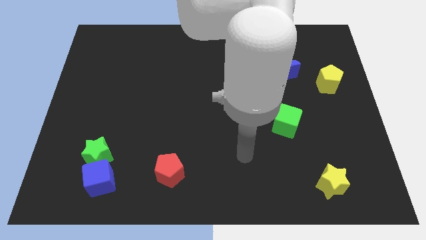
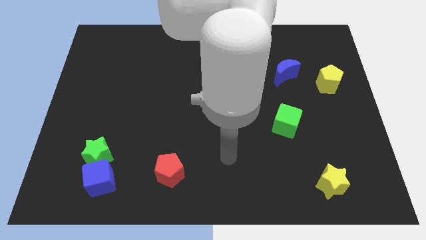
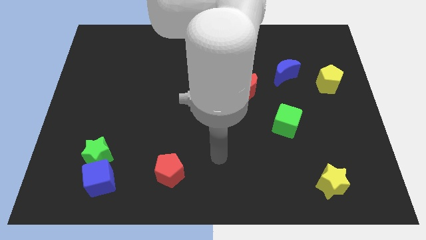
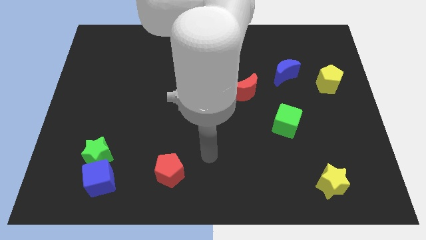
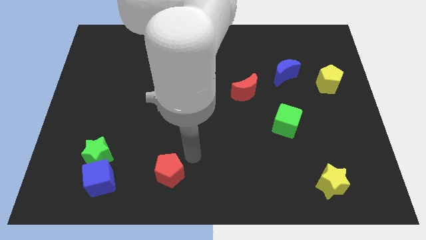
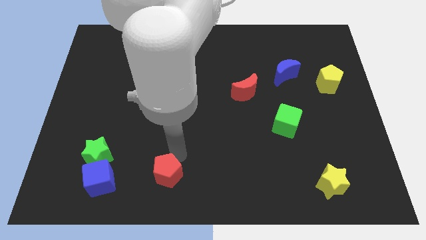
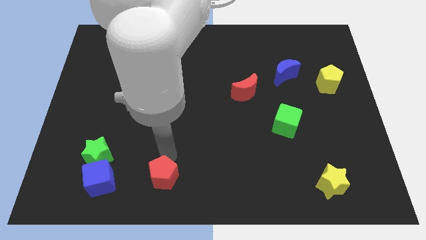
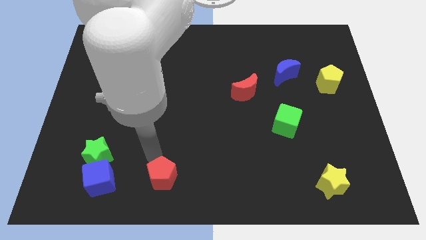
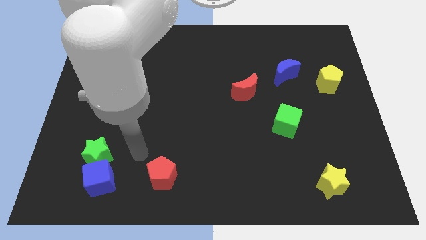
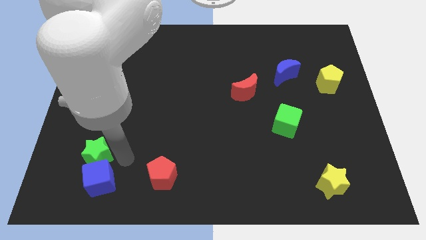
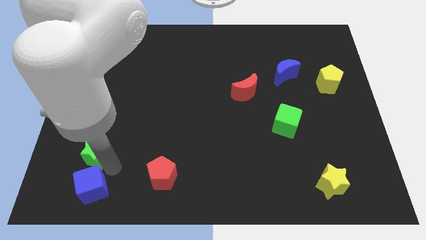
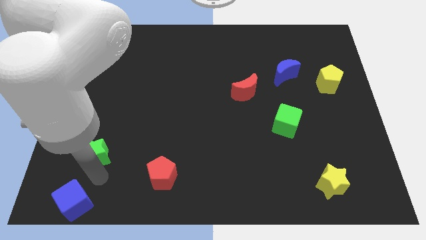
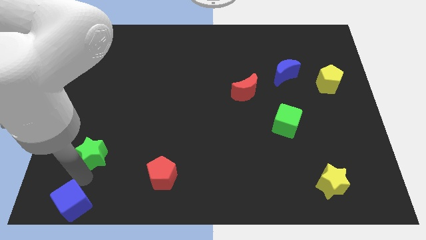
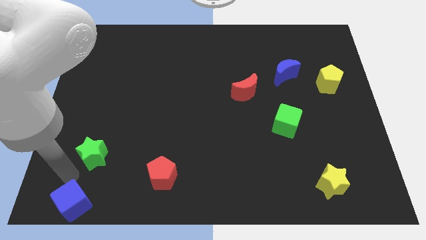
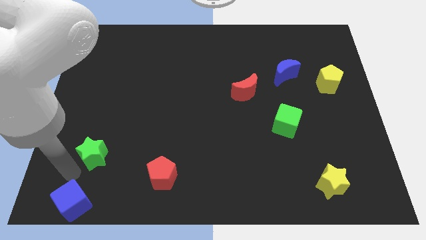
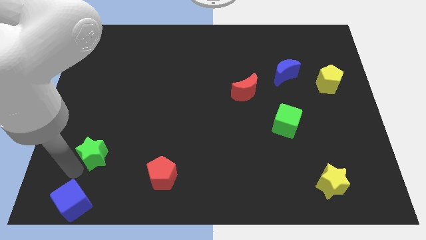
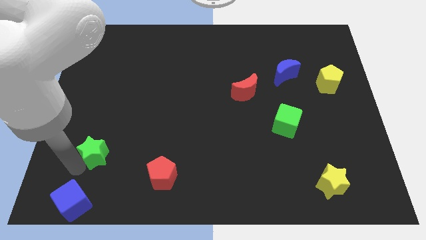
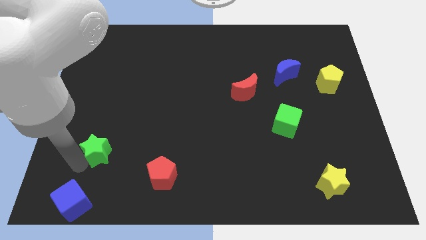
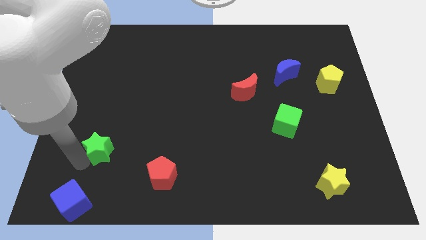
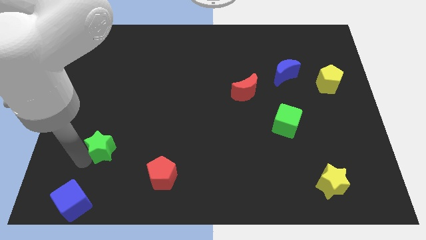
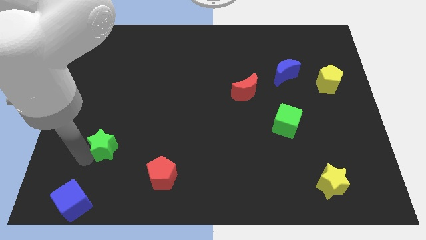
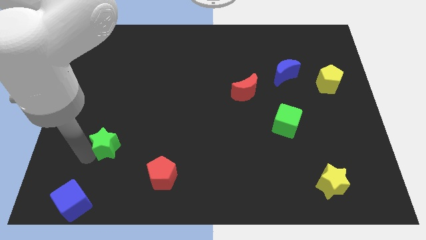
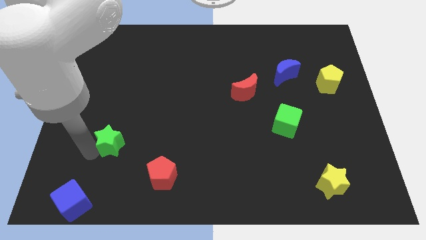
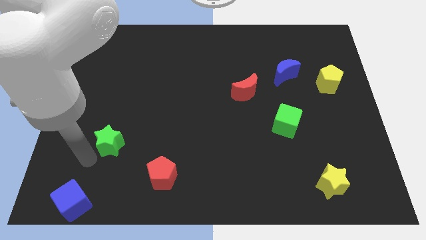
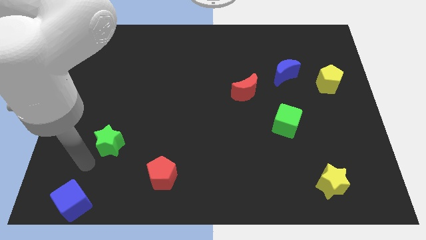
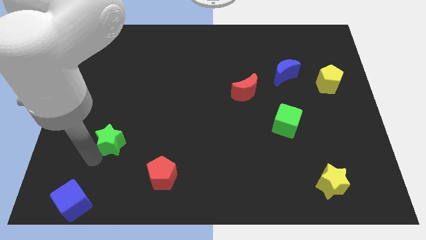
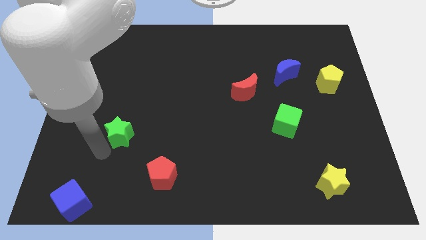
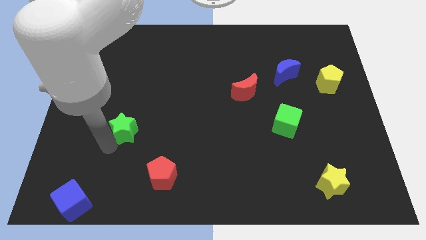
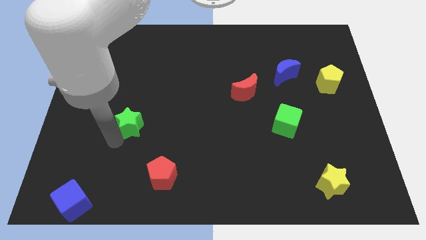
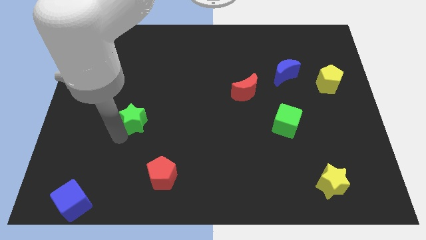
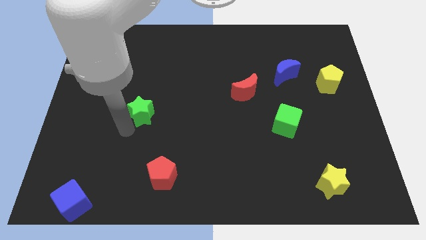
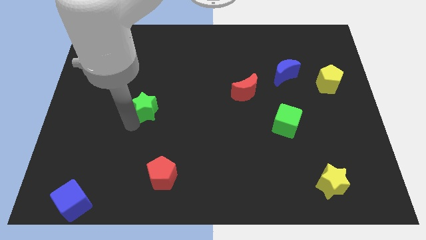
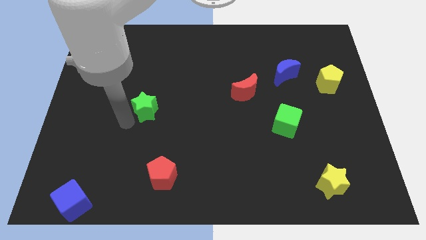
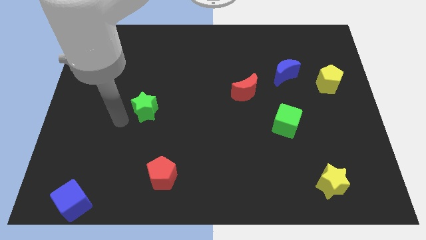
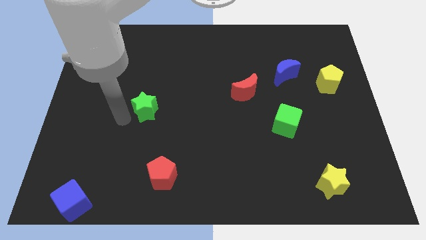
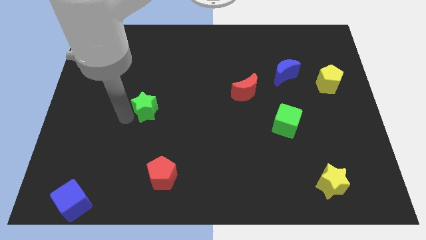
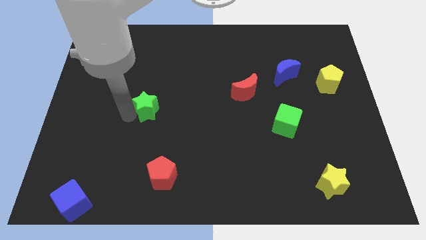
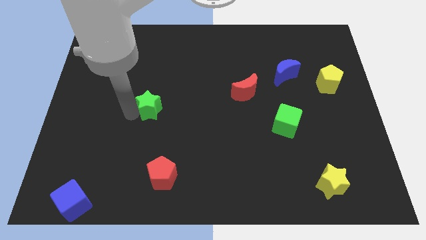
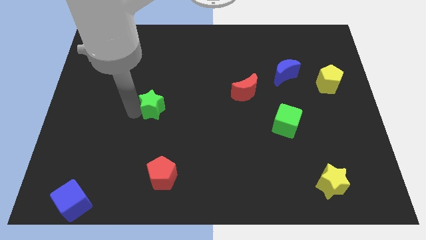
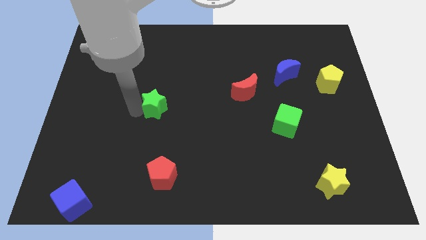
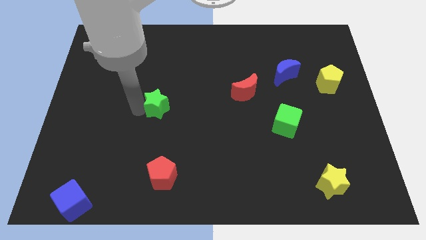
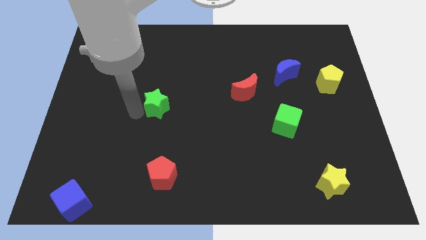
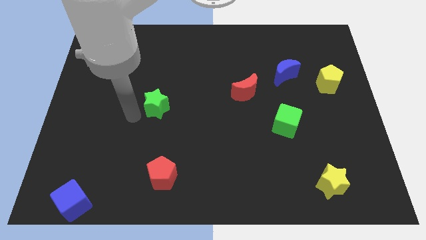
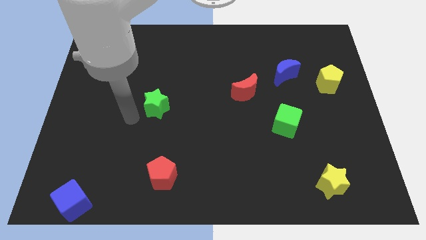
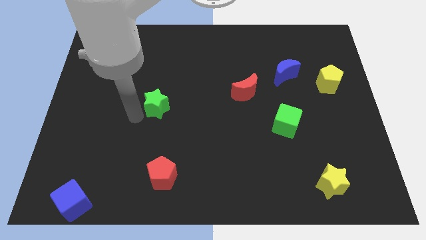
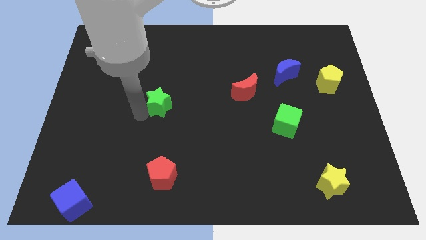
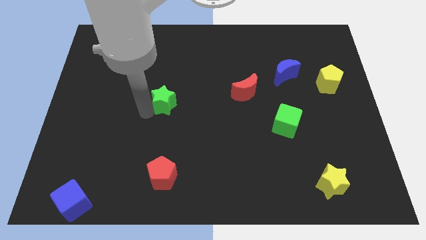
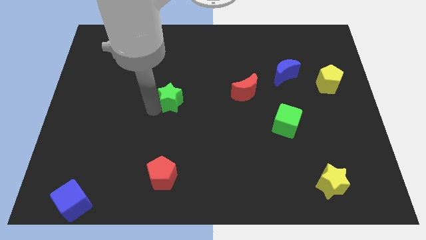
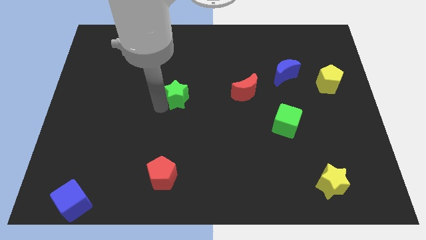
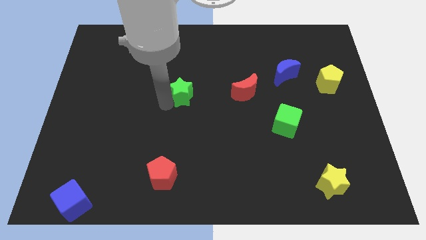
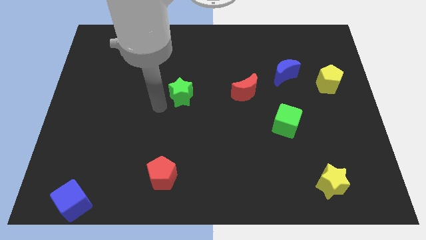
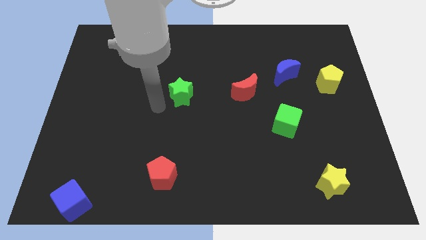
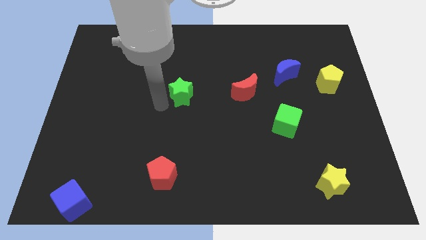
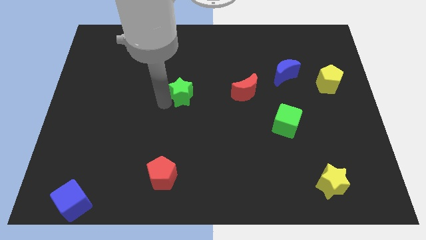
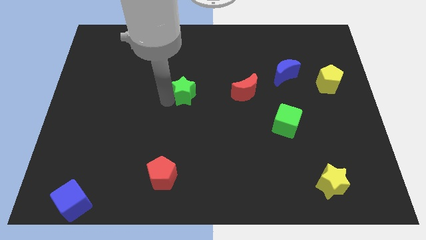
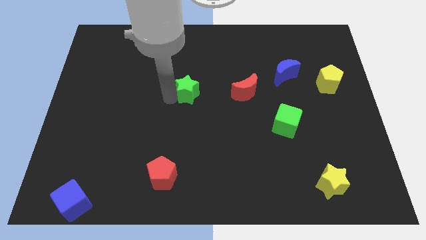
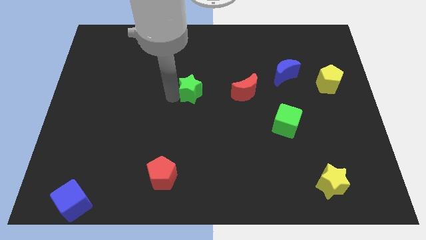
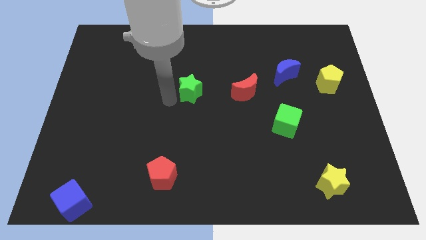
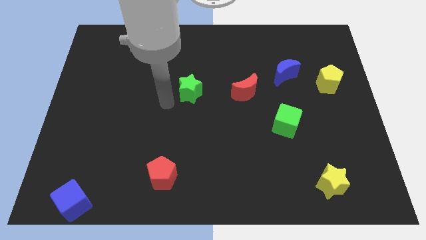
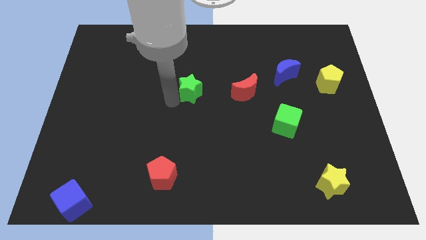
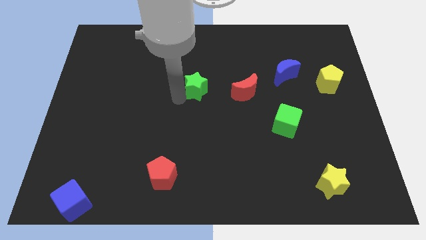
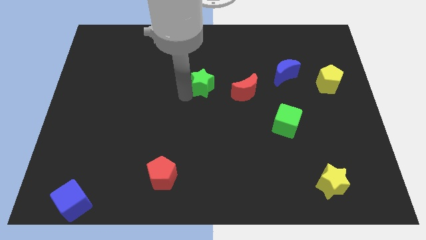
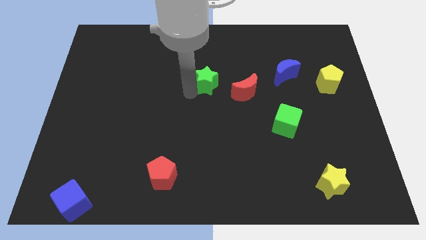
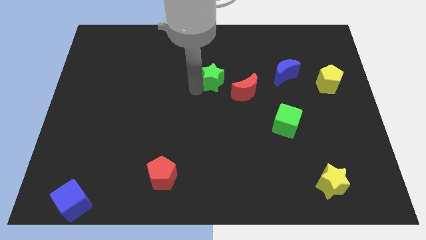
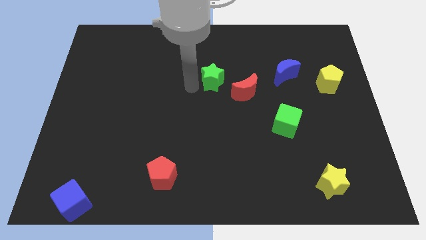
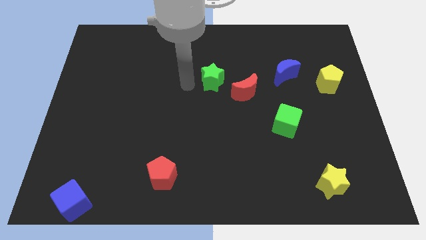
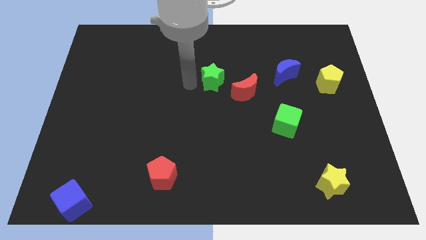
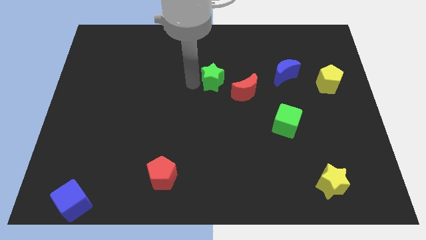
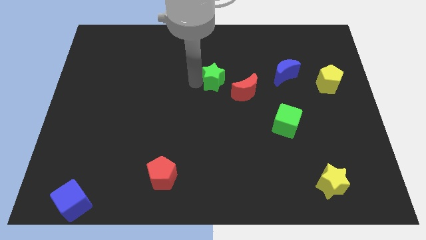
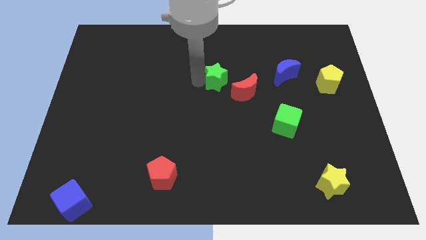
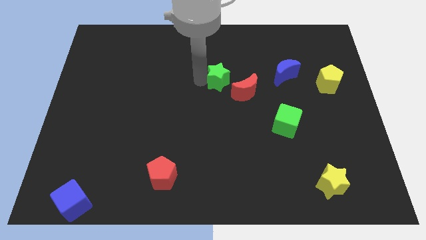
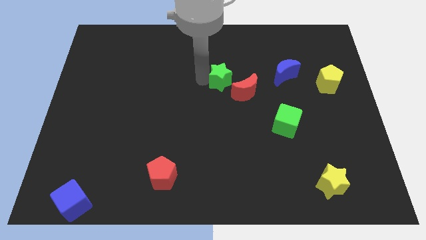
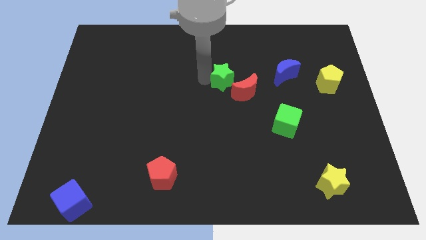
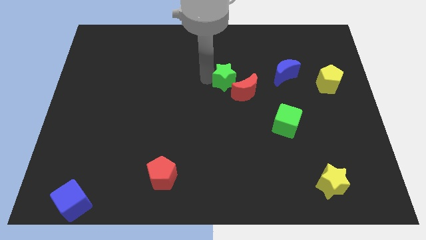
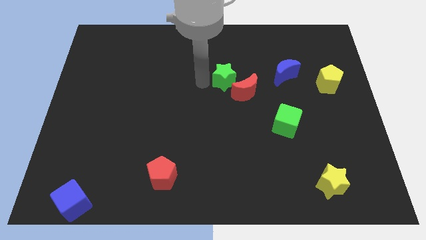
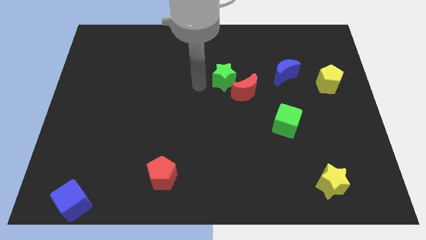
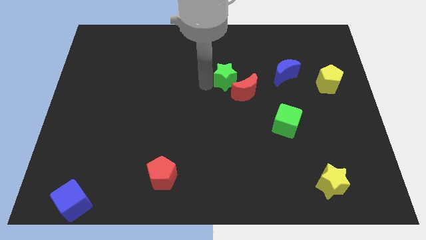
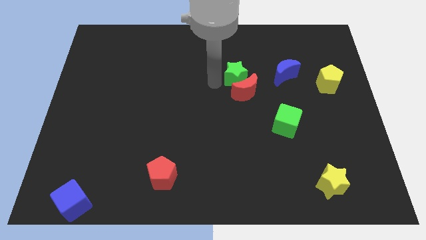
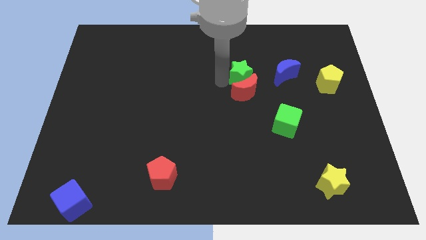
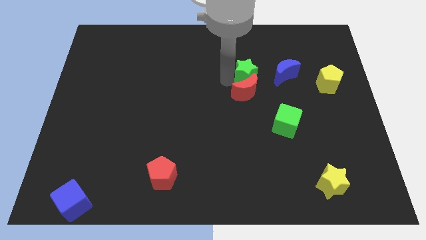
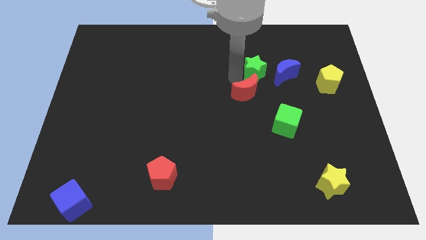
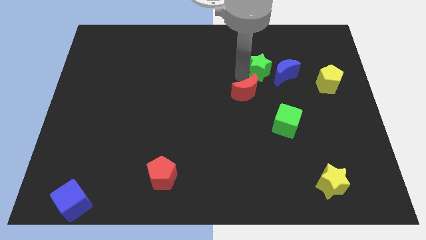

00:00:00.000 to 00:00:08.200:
put the green star to the blue moon

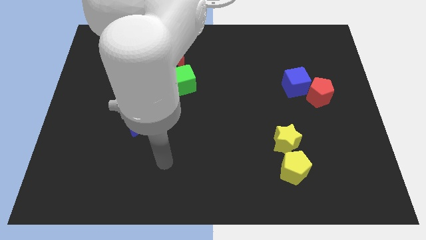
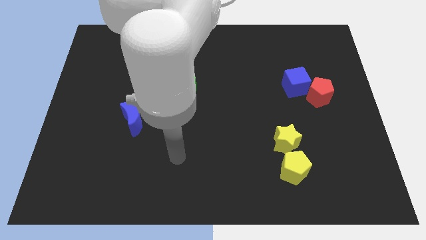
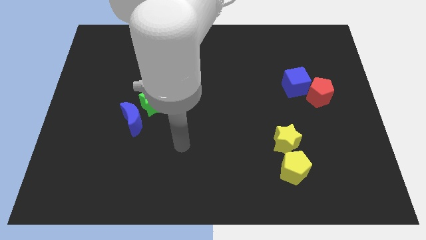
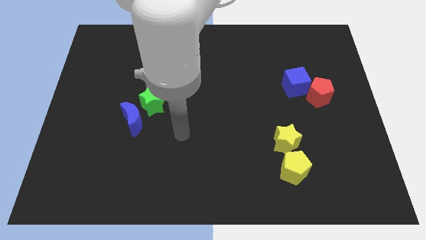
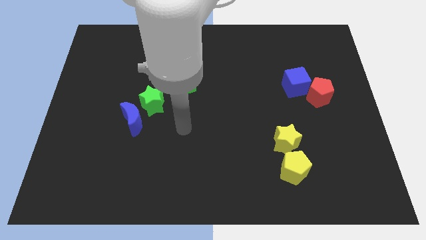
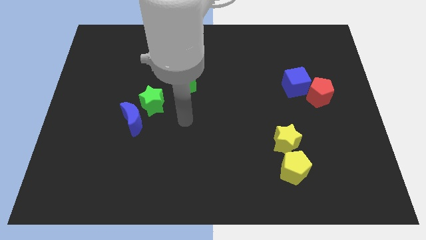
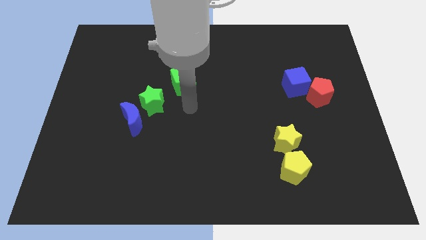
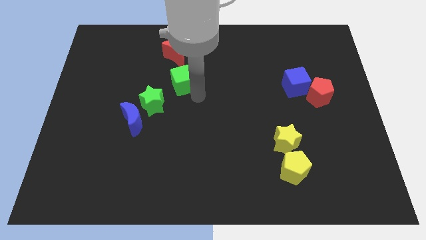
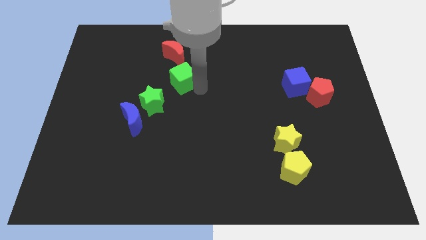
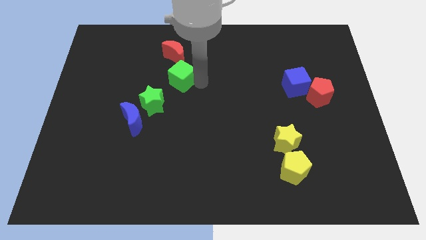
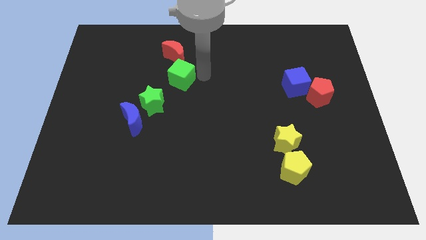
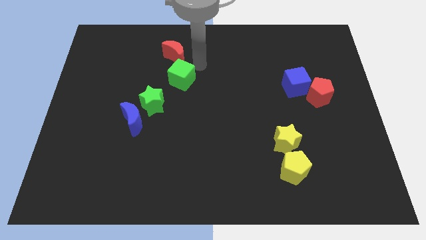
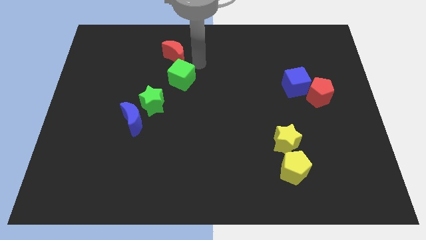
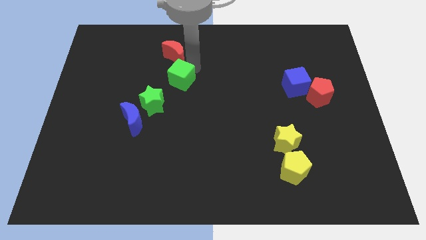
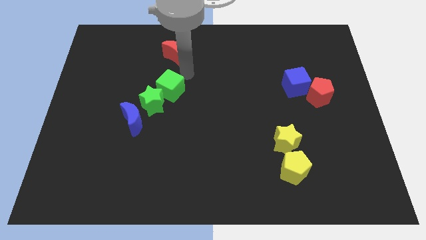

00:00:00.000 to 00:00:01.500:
push the green cube next to the green star
